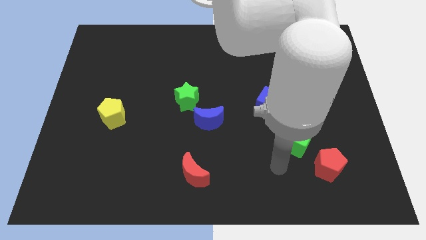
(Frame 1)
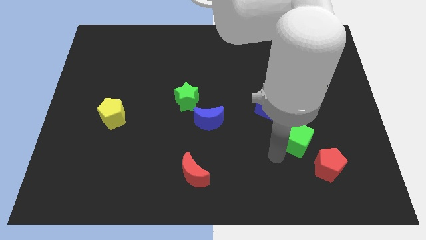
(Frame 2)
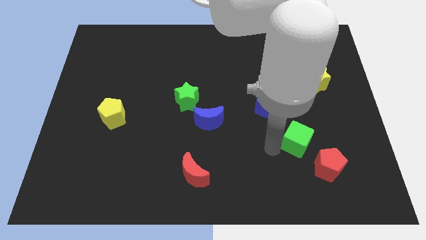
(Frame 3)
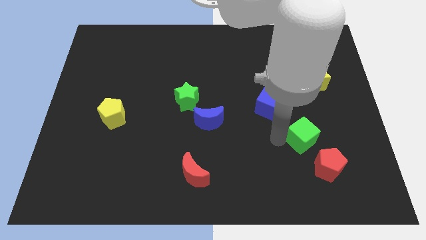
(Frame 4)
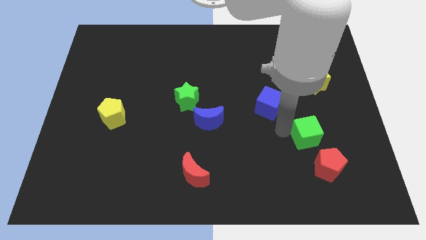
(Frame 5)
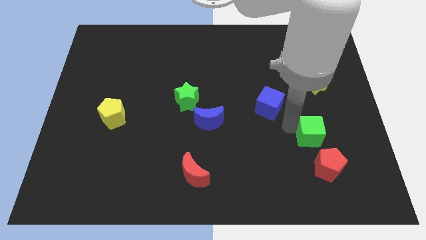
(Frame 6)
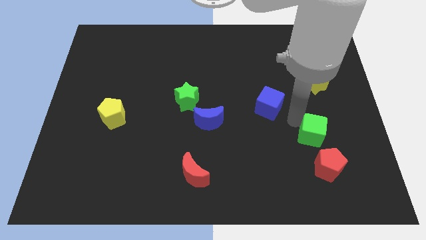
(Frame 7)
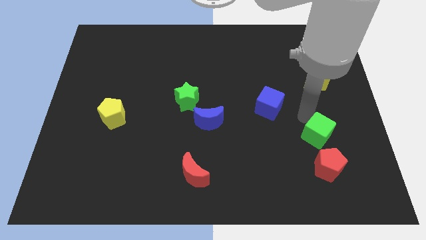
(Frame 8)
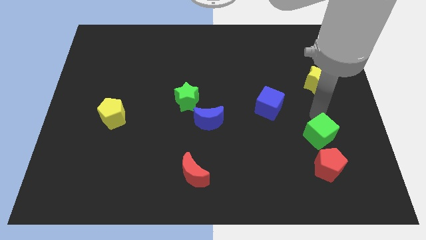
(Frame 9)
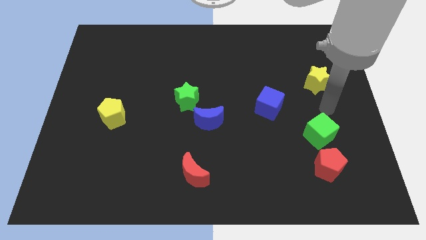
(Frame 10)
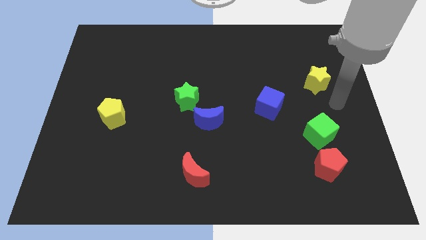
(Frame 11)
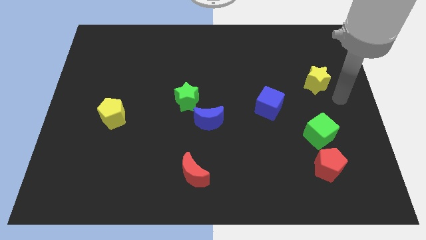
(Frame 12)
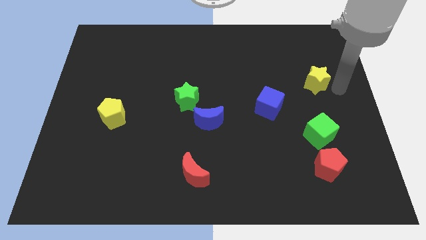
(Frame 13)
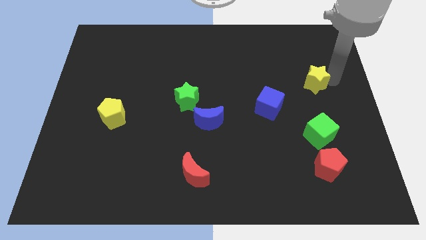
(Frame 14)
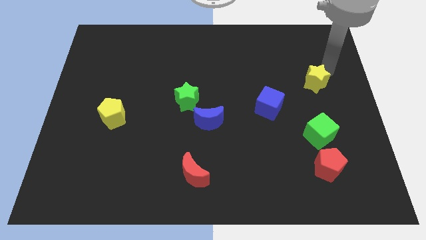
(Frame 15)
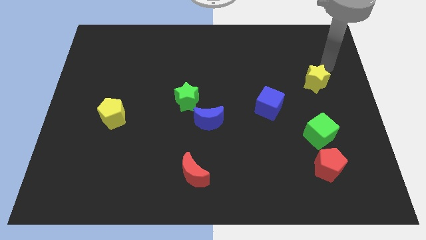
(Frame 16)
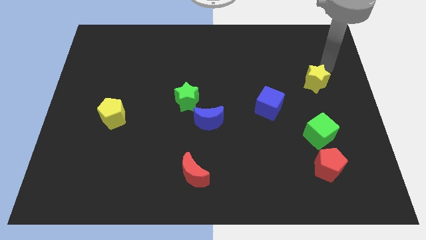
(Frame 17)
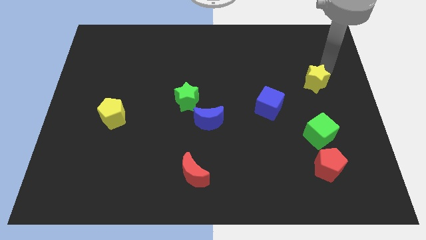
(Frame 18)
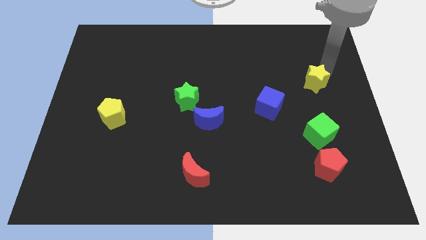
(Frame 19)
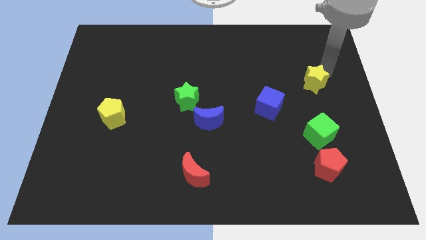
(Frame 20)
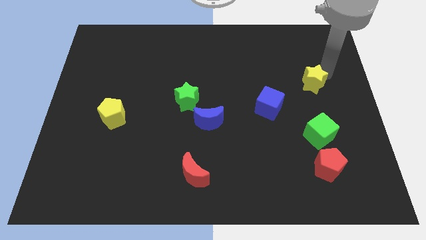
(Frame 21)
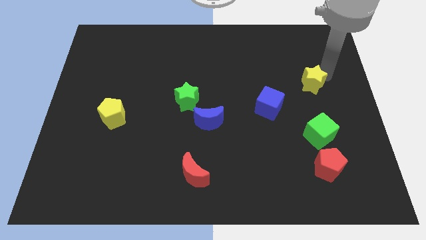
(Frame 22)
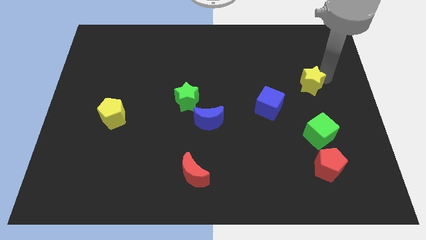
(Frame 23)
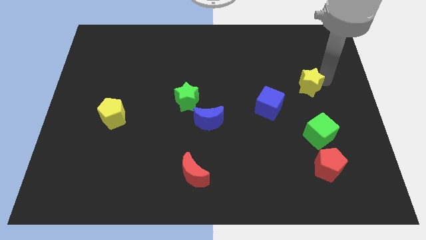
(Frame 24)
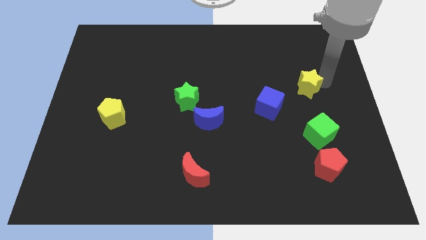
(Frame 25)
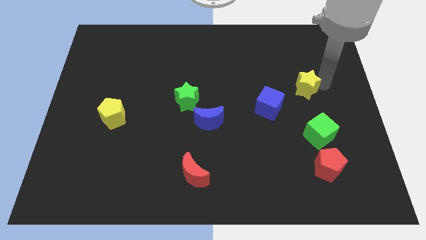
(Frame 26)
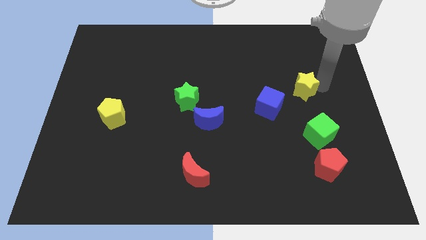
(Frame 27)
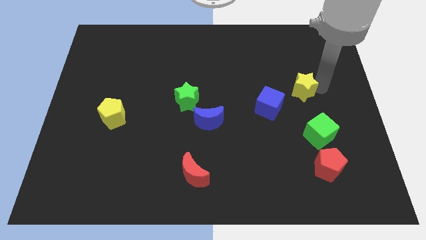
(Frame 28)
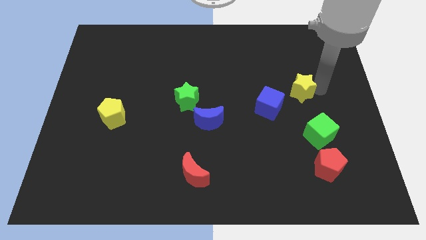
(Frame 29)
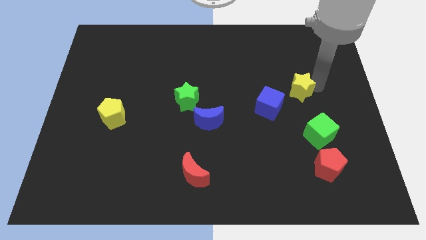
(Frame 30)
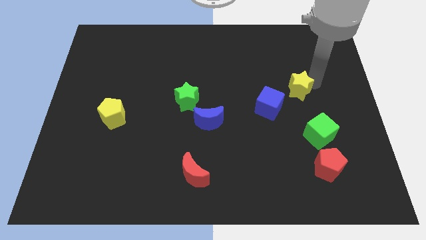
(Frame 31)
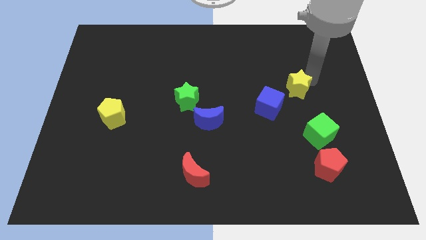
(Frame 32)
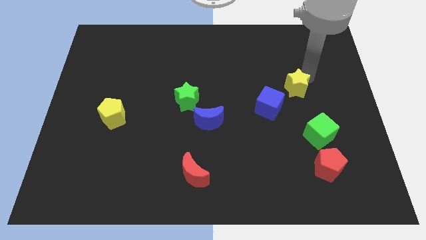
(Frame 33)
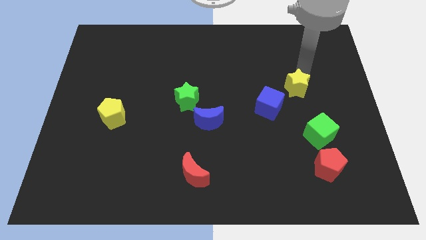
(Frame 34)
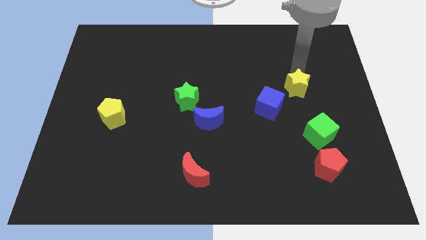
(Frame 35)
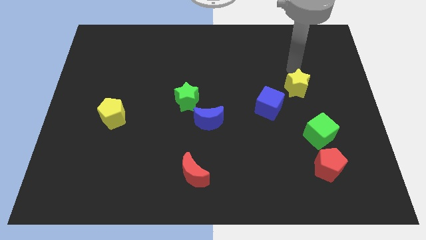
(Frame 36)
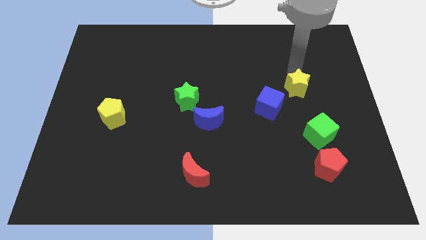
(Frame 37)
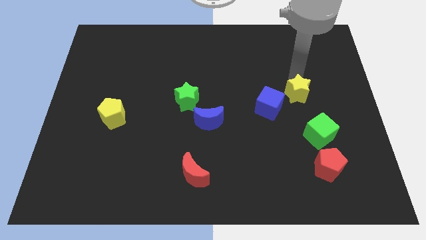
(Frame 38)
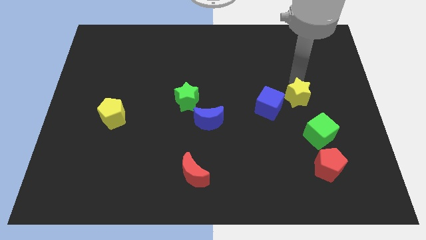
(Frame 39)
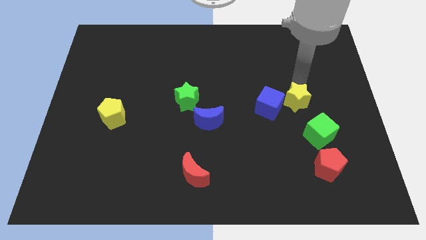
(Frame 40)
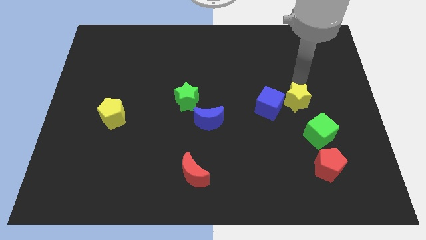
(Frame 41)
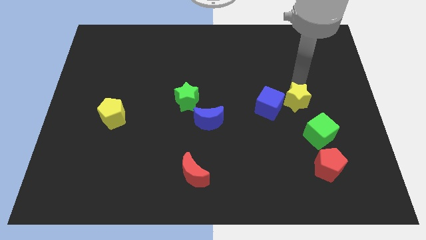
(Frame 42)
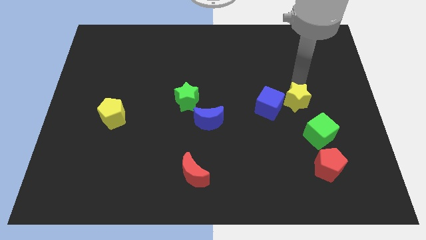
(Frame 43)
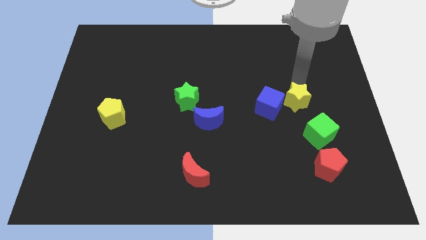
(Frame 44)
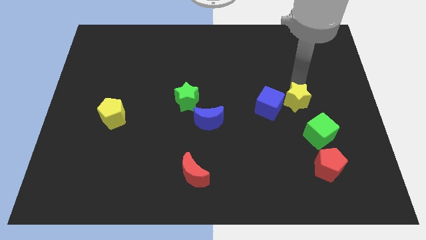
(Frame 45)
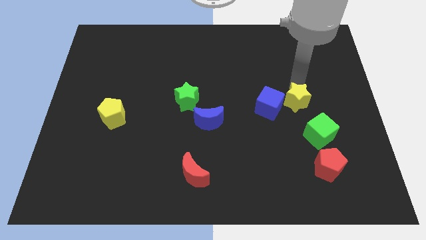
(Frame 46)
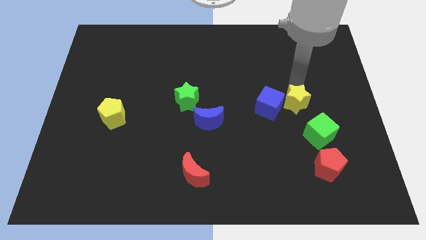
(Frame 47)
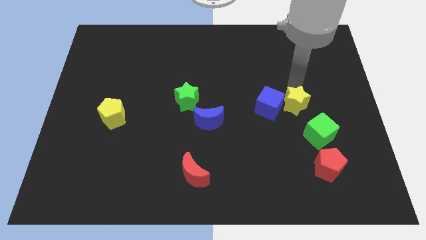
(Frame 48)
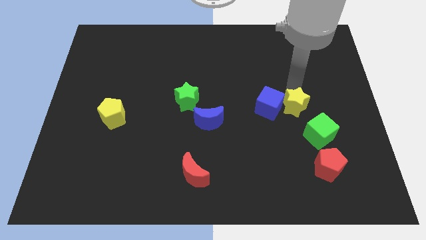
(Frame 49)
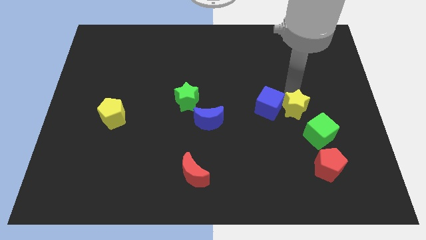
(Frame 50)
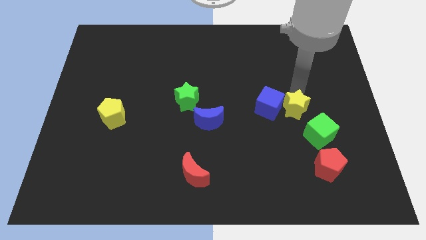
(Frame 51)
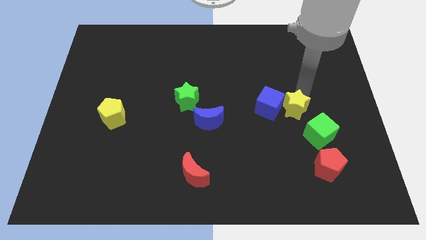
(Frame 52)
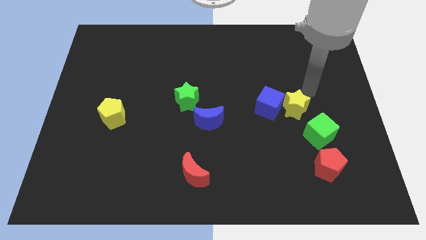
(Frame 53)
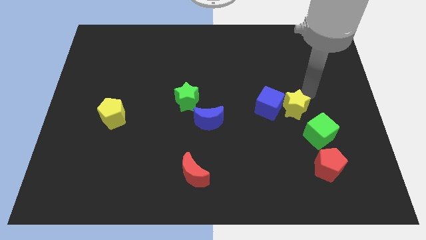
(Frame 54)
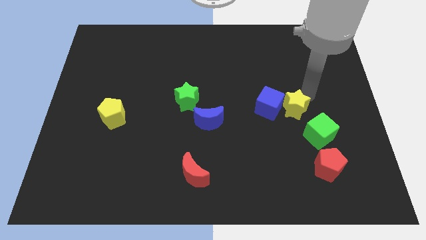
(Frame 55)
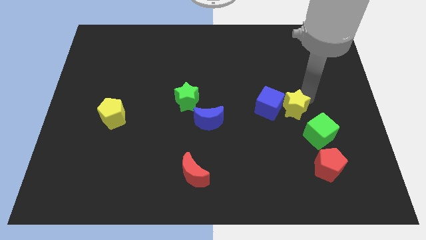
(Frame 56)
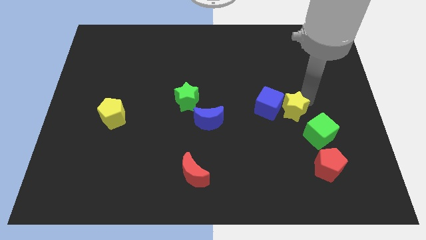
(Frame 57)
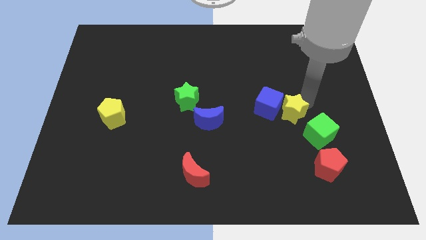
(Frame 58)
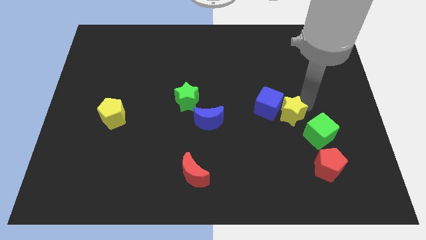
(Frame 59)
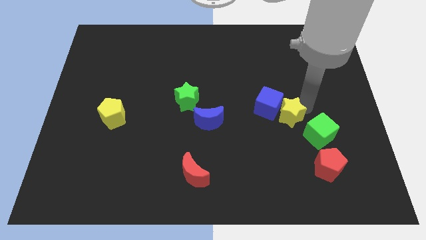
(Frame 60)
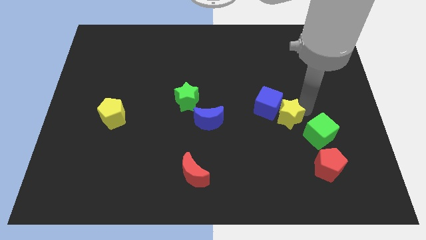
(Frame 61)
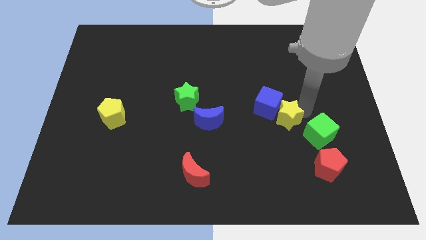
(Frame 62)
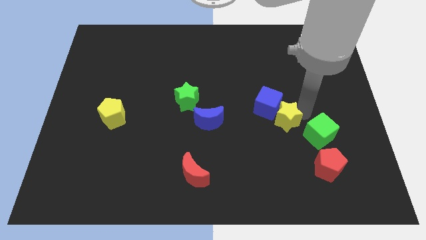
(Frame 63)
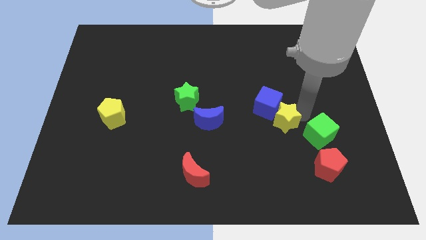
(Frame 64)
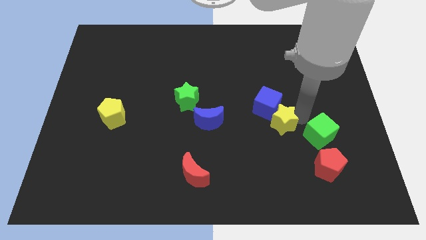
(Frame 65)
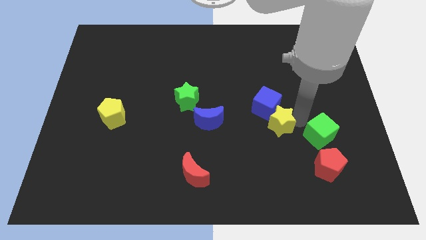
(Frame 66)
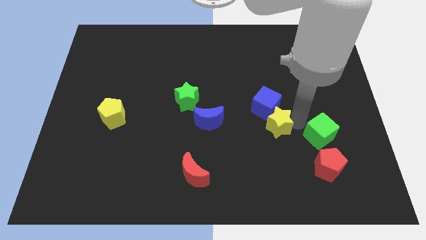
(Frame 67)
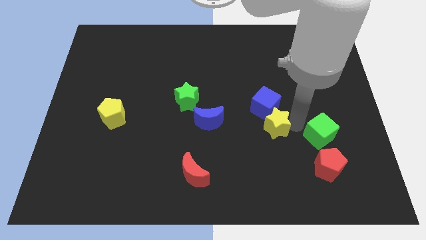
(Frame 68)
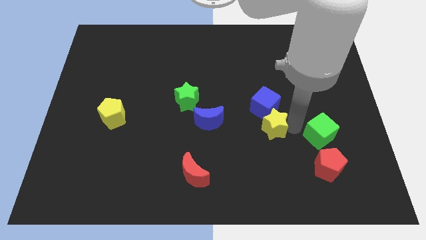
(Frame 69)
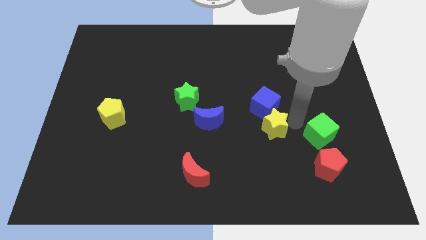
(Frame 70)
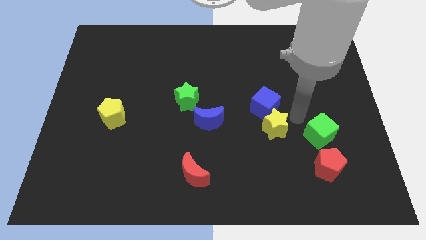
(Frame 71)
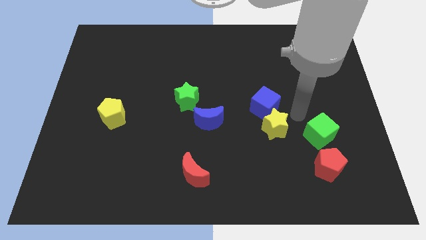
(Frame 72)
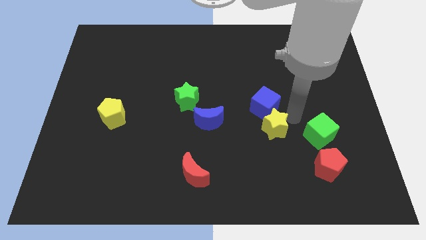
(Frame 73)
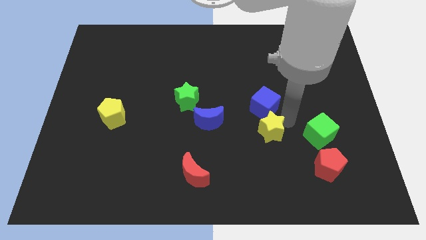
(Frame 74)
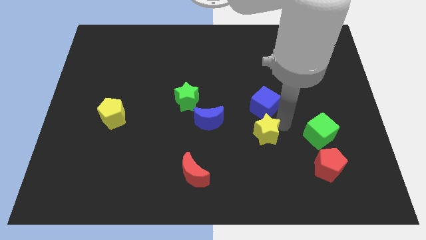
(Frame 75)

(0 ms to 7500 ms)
move the yellow star diagonally down and to the left

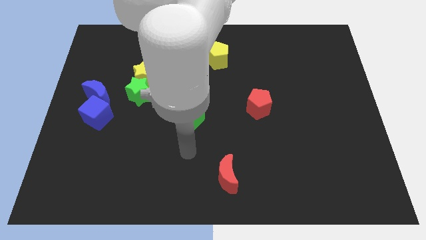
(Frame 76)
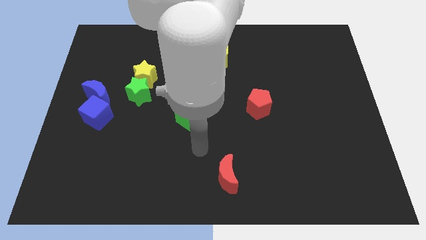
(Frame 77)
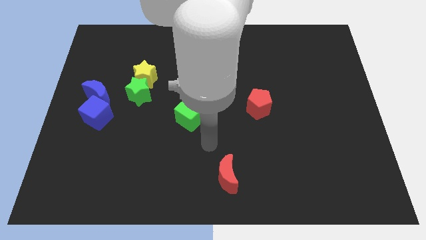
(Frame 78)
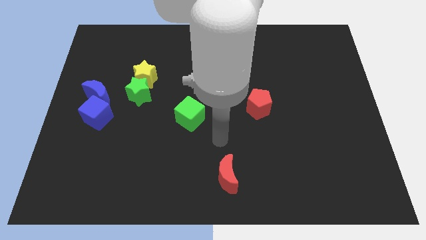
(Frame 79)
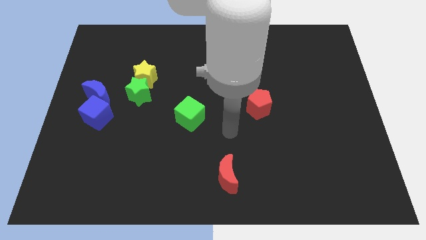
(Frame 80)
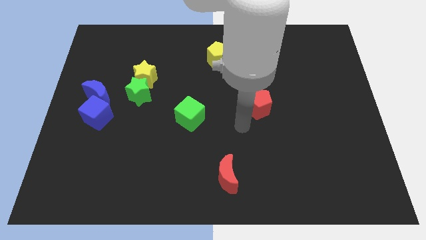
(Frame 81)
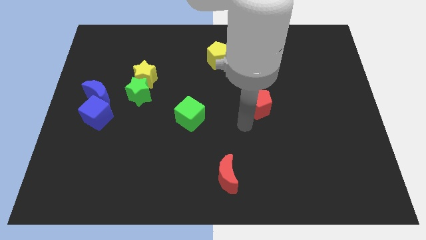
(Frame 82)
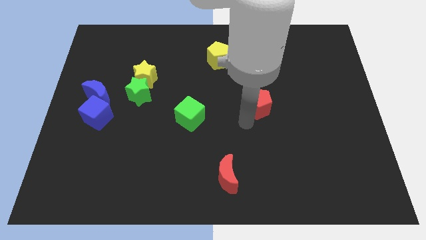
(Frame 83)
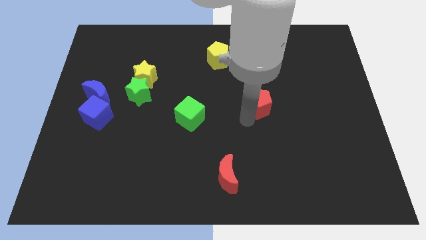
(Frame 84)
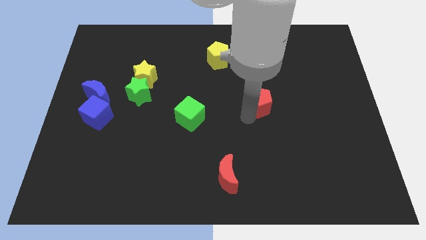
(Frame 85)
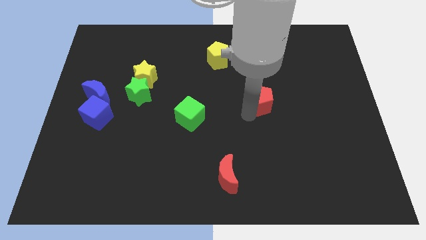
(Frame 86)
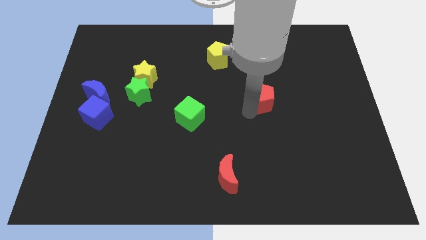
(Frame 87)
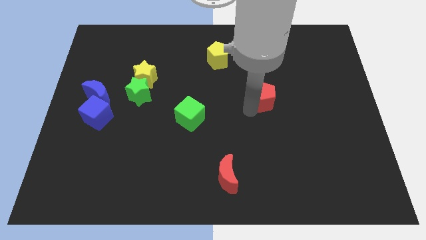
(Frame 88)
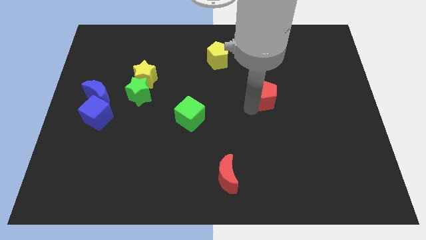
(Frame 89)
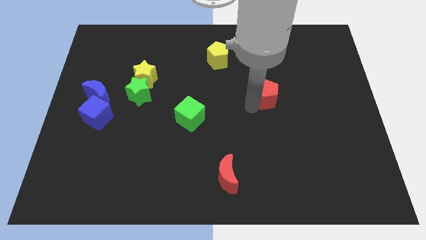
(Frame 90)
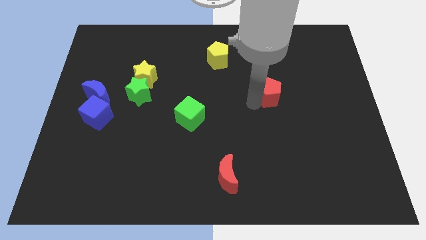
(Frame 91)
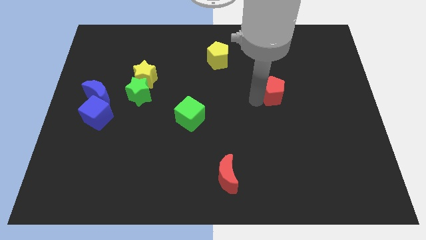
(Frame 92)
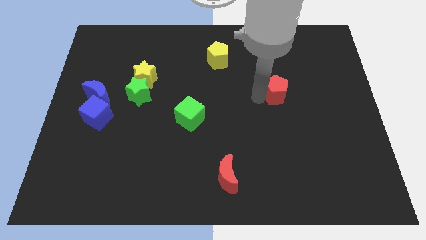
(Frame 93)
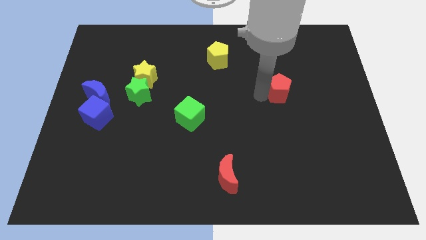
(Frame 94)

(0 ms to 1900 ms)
slide the red pentagon a bit upwards and right diagonally
